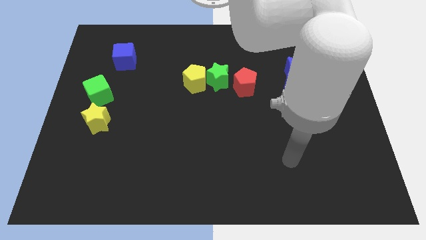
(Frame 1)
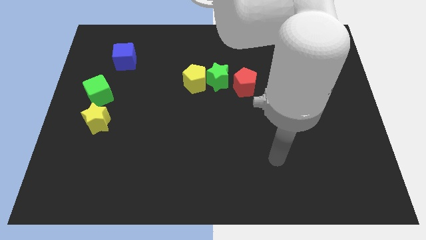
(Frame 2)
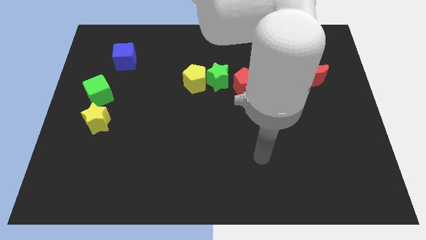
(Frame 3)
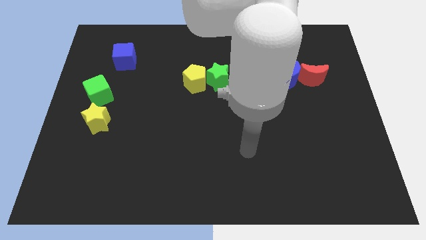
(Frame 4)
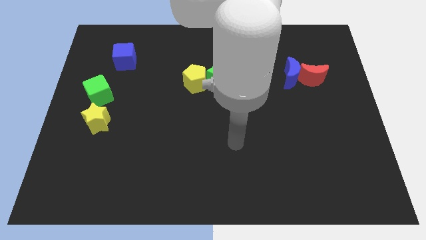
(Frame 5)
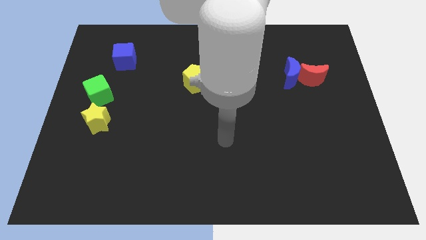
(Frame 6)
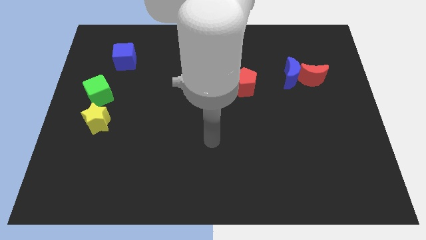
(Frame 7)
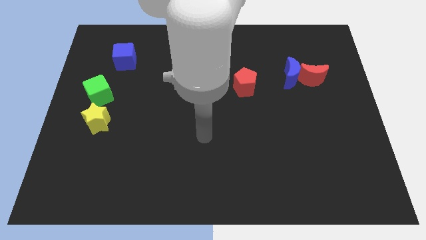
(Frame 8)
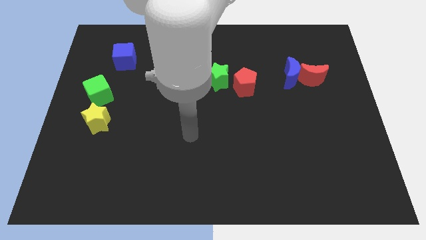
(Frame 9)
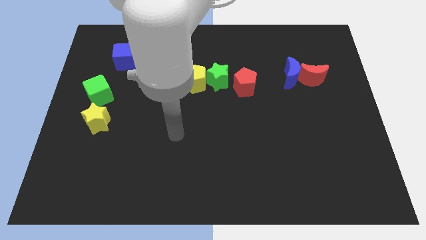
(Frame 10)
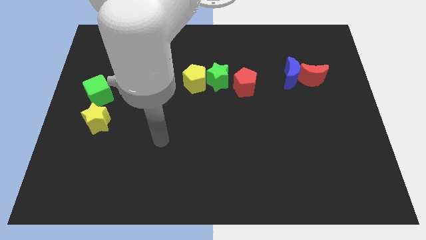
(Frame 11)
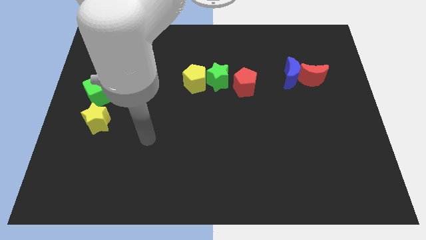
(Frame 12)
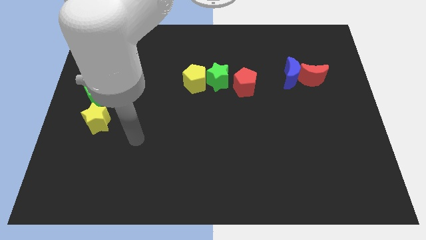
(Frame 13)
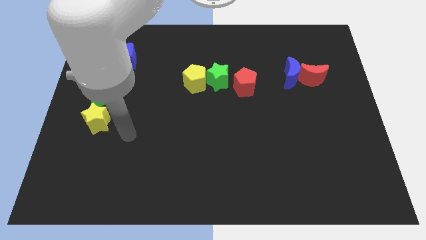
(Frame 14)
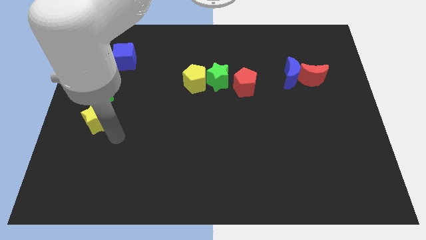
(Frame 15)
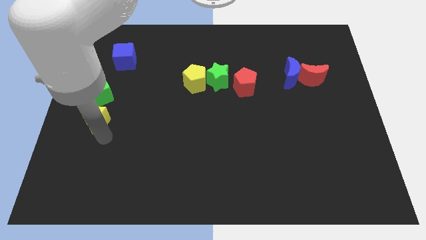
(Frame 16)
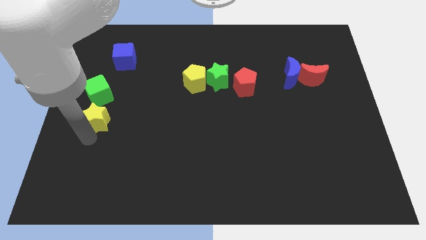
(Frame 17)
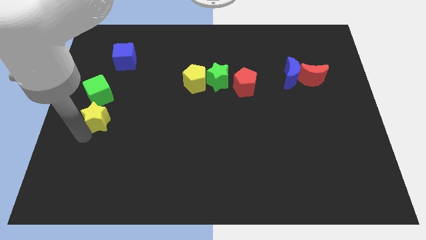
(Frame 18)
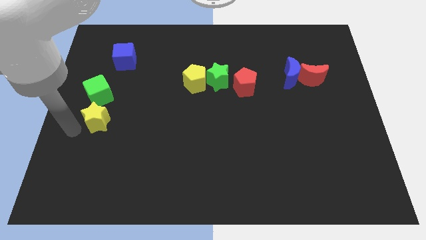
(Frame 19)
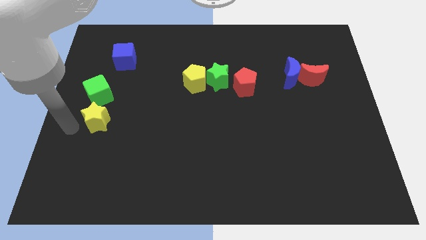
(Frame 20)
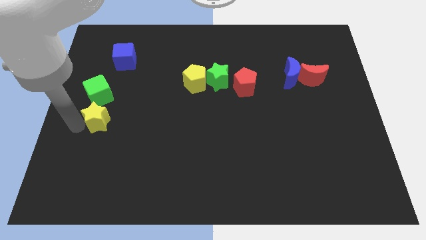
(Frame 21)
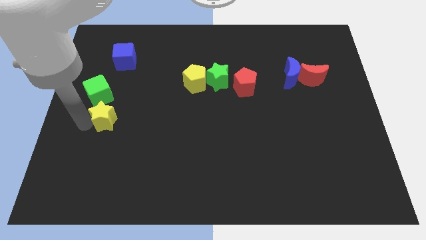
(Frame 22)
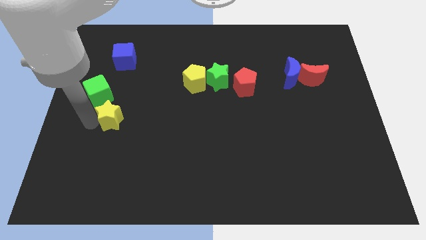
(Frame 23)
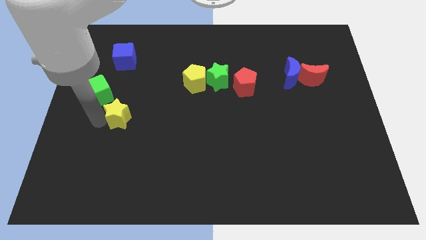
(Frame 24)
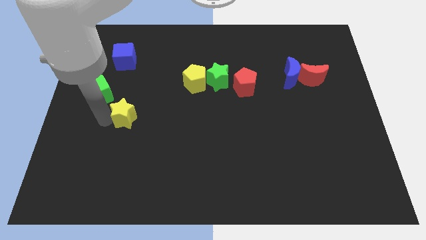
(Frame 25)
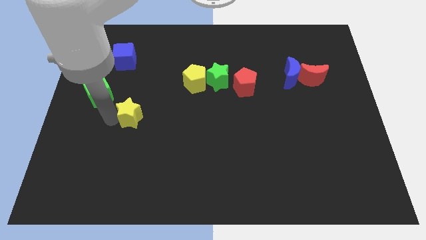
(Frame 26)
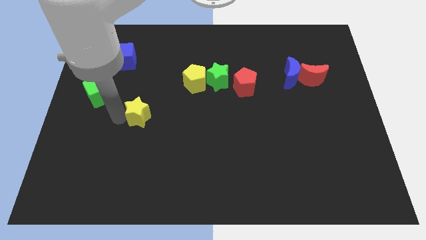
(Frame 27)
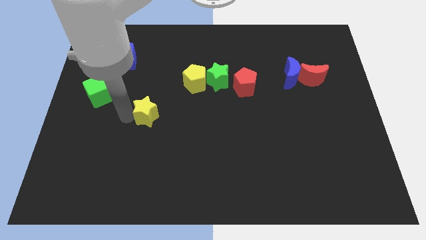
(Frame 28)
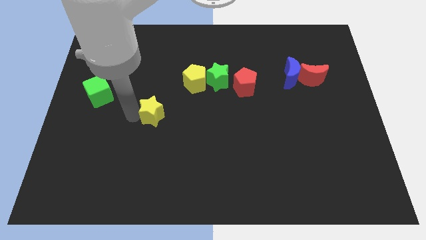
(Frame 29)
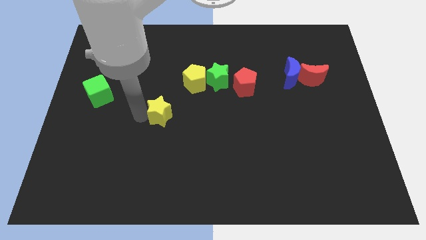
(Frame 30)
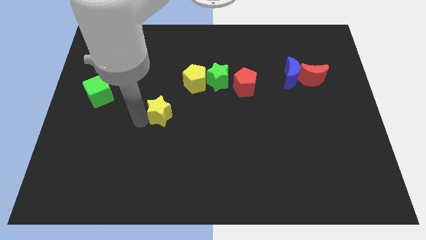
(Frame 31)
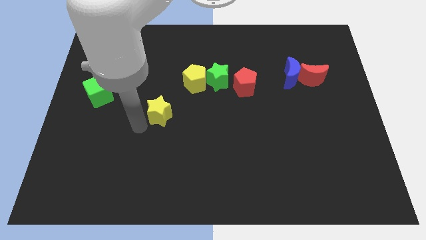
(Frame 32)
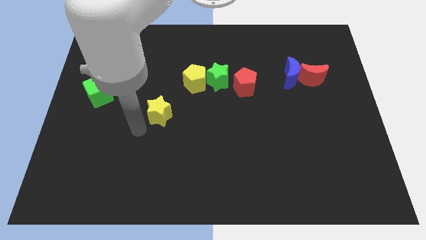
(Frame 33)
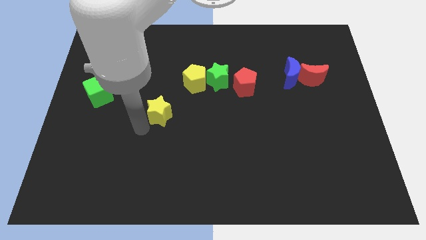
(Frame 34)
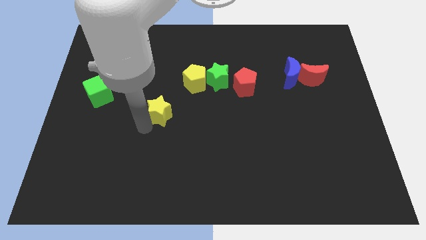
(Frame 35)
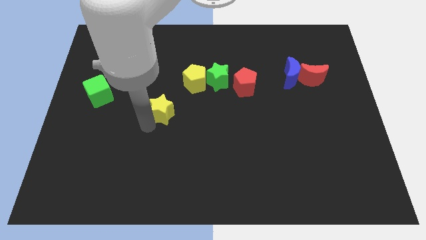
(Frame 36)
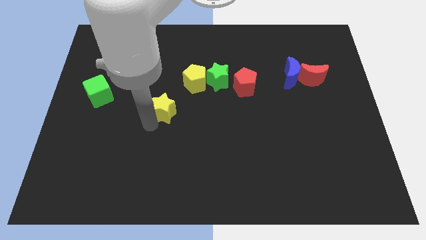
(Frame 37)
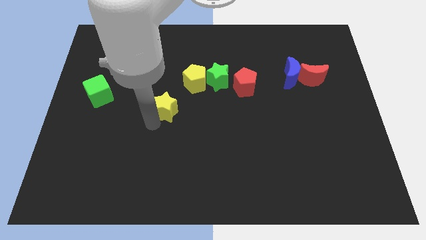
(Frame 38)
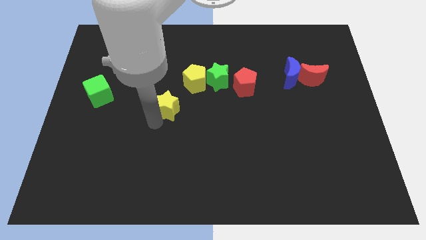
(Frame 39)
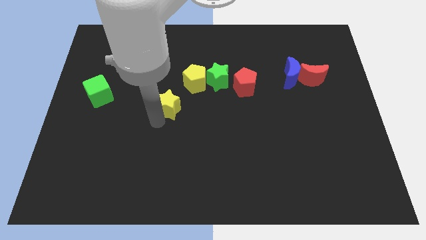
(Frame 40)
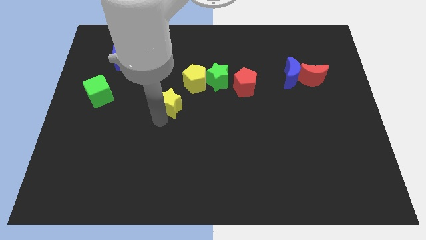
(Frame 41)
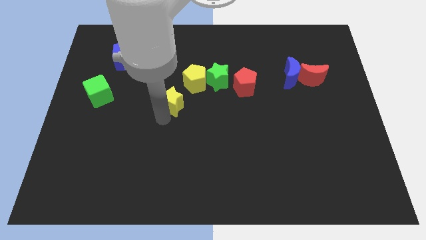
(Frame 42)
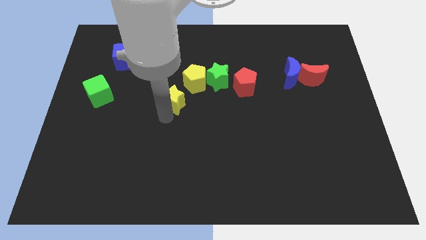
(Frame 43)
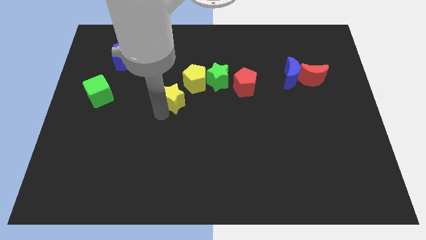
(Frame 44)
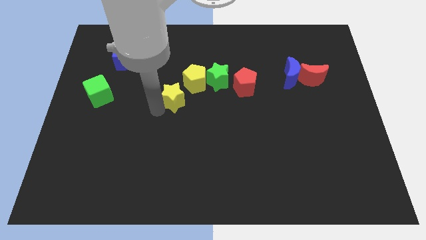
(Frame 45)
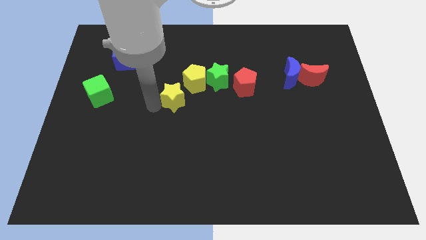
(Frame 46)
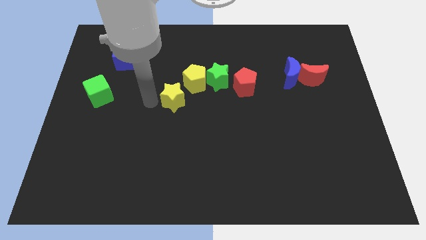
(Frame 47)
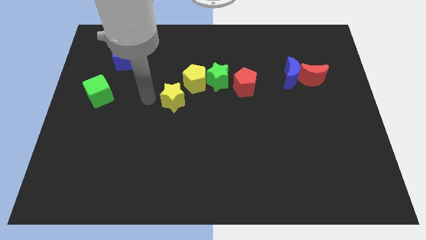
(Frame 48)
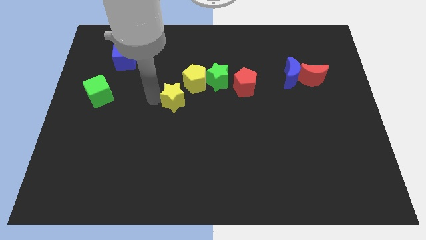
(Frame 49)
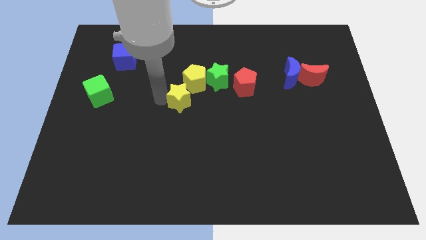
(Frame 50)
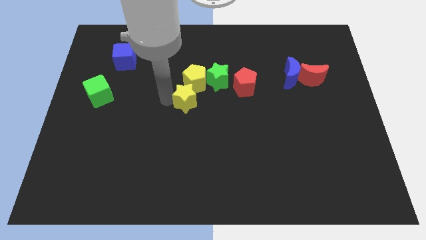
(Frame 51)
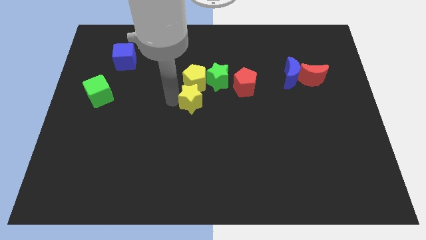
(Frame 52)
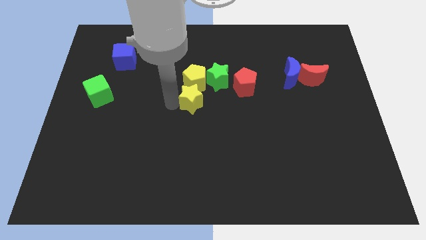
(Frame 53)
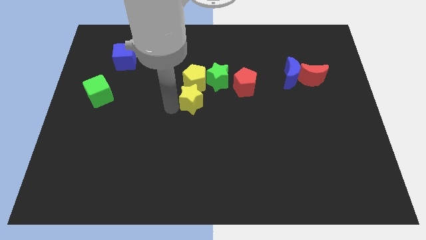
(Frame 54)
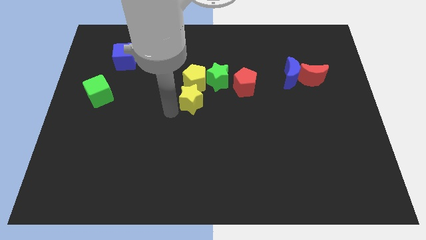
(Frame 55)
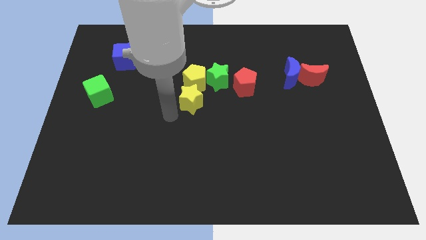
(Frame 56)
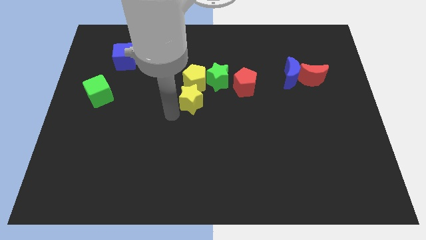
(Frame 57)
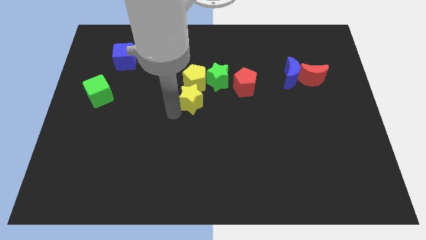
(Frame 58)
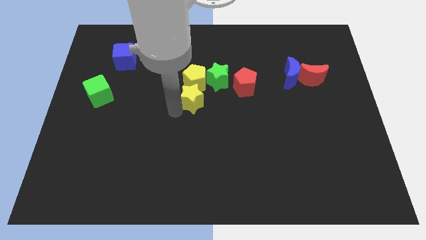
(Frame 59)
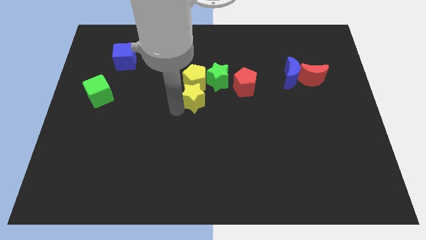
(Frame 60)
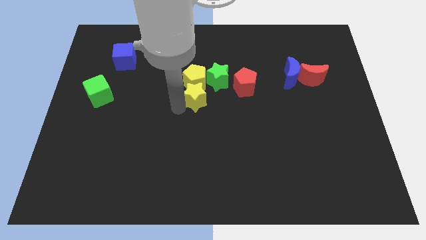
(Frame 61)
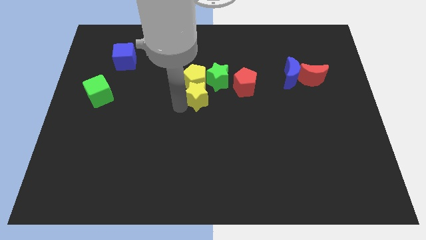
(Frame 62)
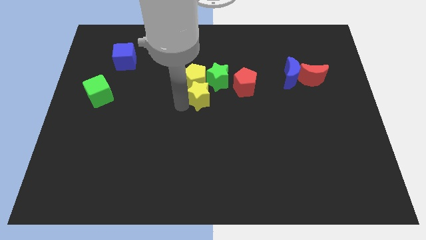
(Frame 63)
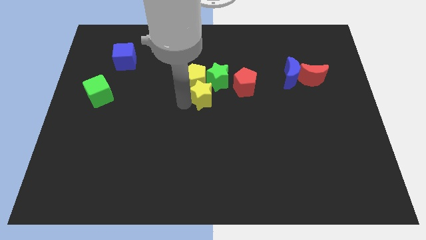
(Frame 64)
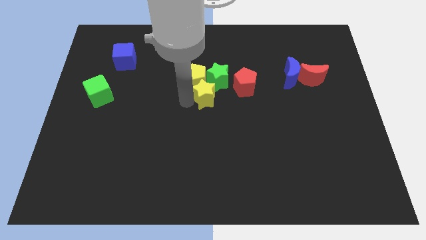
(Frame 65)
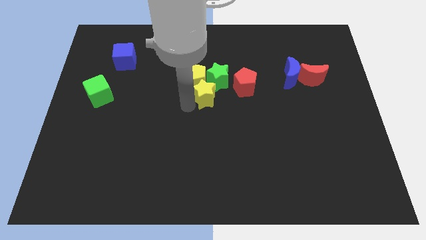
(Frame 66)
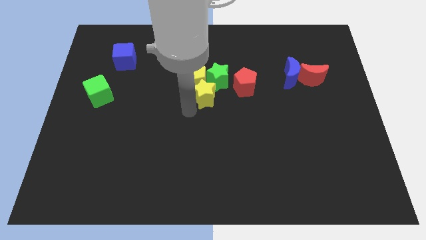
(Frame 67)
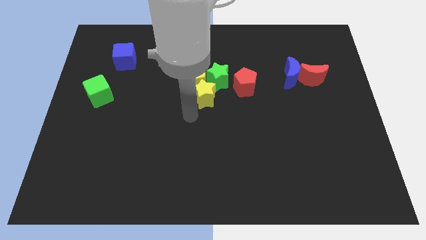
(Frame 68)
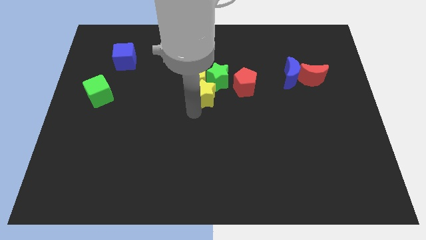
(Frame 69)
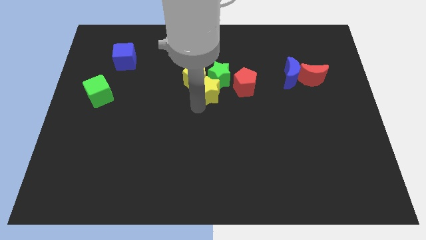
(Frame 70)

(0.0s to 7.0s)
move the yellow star to the green star
